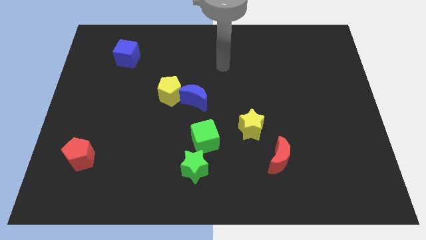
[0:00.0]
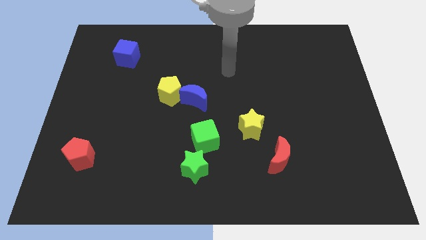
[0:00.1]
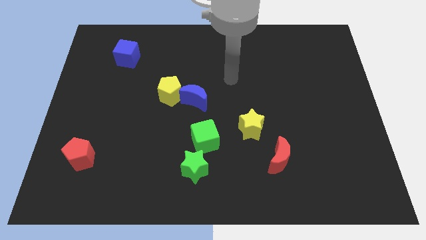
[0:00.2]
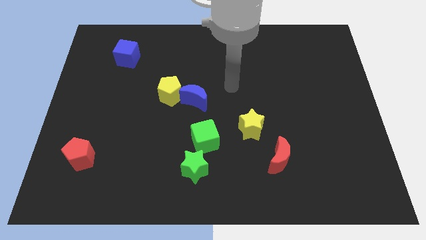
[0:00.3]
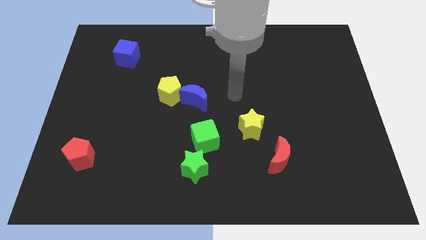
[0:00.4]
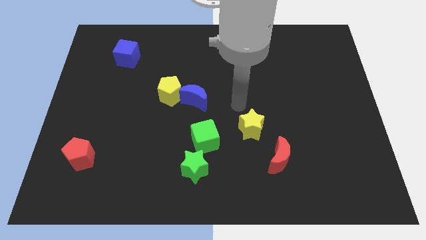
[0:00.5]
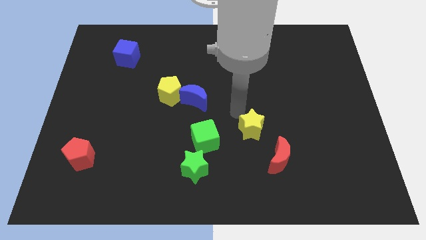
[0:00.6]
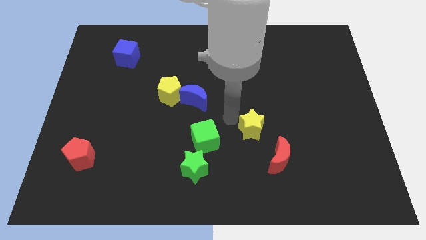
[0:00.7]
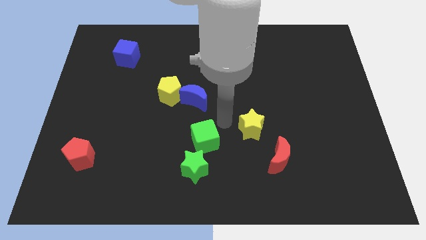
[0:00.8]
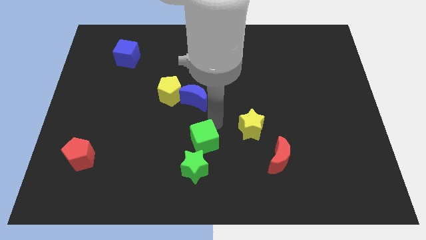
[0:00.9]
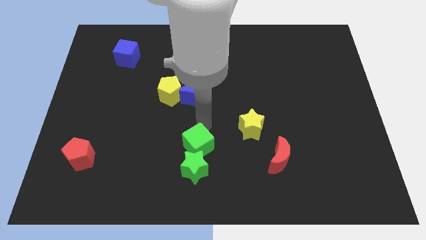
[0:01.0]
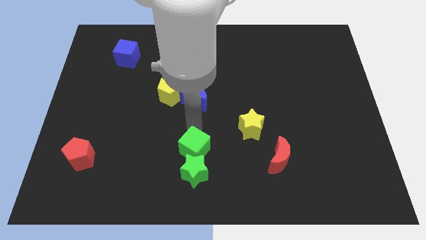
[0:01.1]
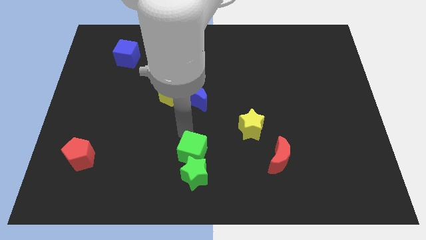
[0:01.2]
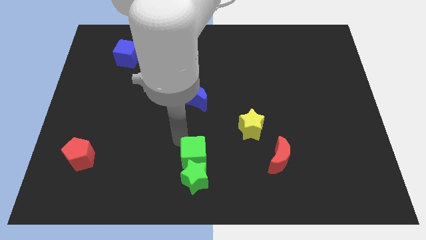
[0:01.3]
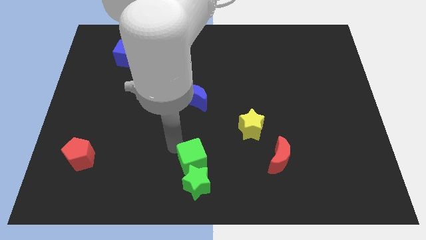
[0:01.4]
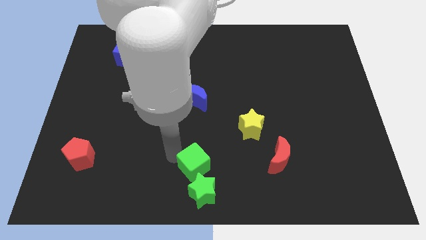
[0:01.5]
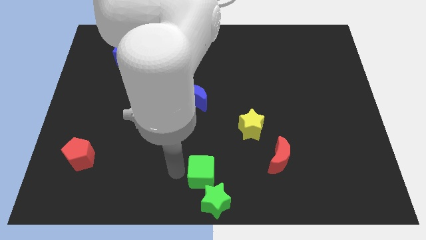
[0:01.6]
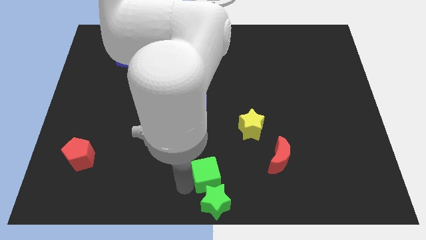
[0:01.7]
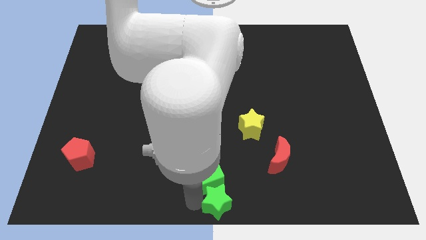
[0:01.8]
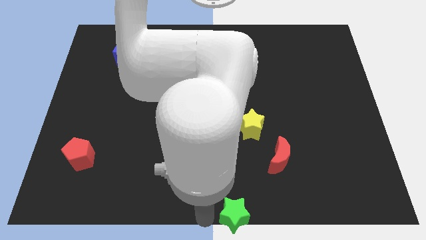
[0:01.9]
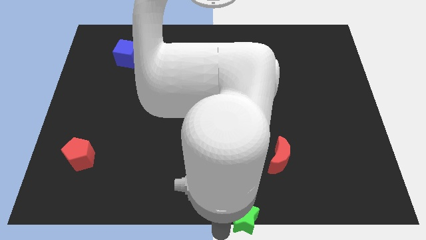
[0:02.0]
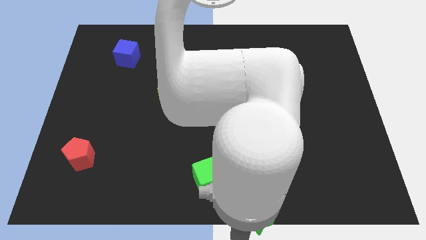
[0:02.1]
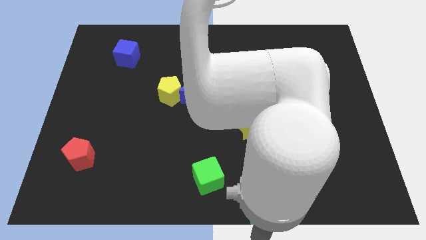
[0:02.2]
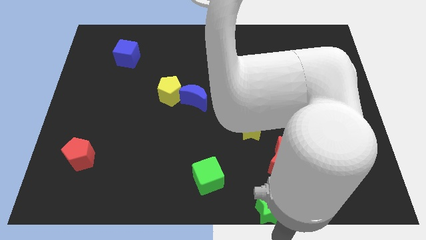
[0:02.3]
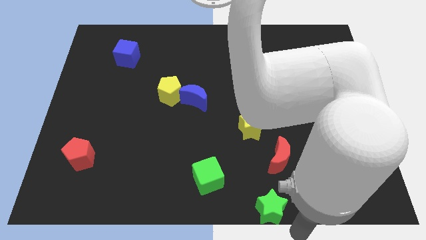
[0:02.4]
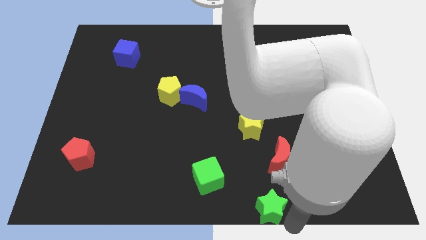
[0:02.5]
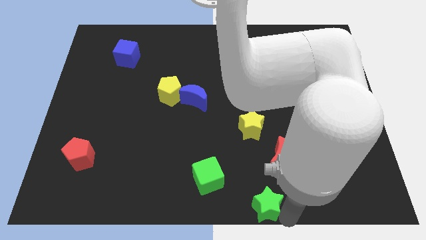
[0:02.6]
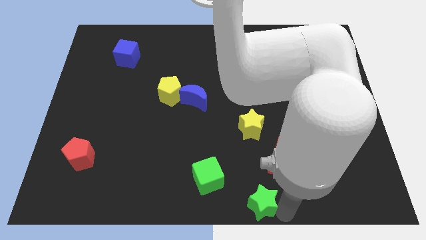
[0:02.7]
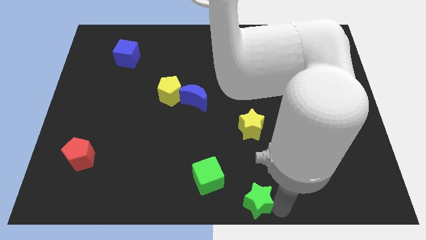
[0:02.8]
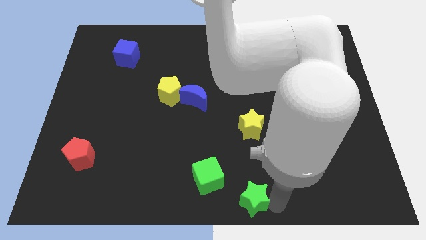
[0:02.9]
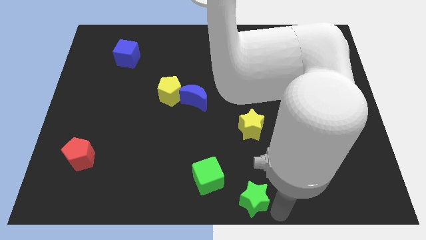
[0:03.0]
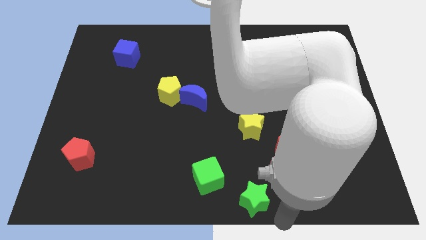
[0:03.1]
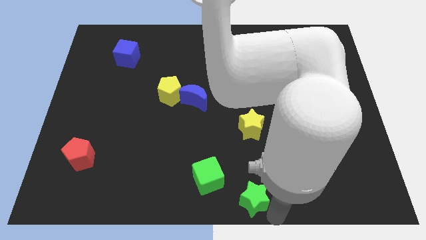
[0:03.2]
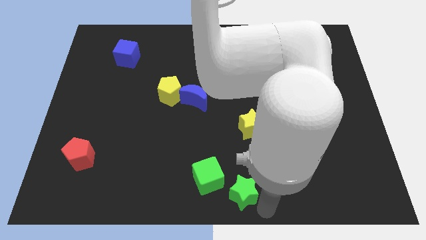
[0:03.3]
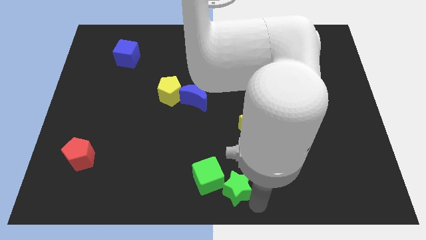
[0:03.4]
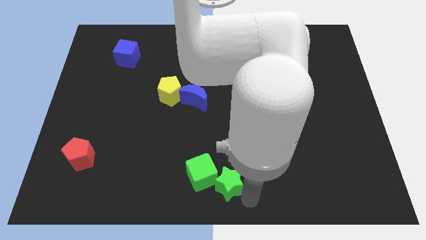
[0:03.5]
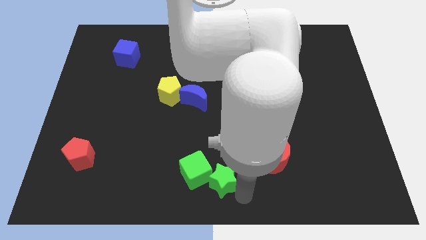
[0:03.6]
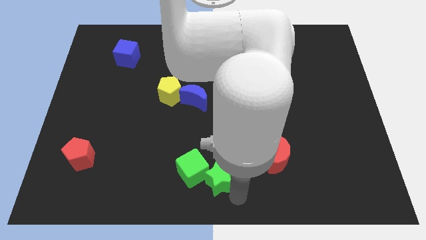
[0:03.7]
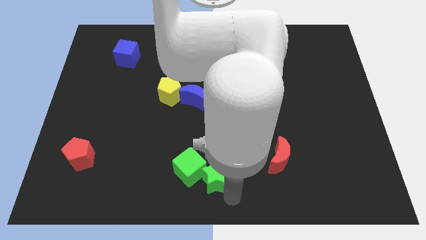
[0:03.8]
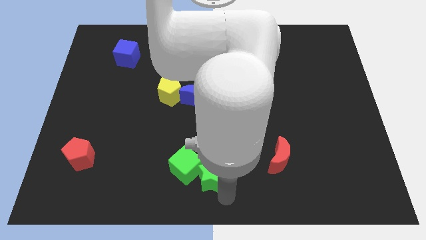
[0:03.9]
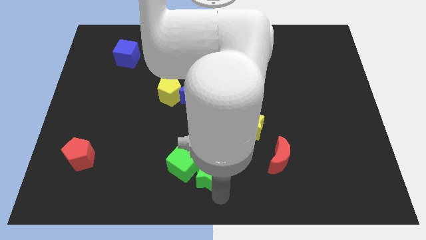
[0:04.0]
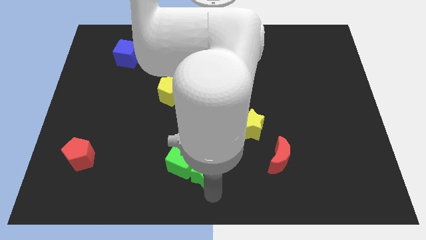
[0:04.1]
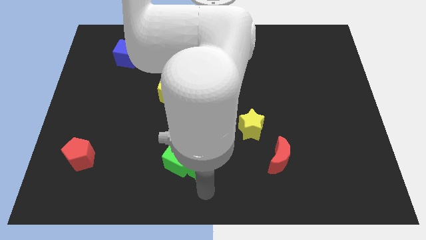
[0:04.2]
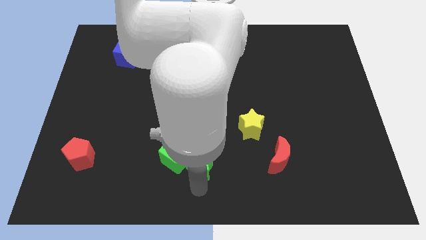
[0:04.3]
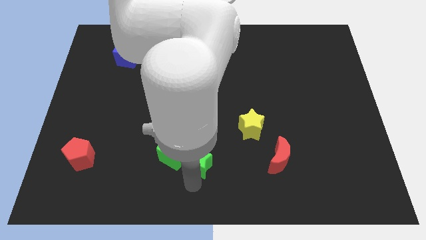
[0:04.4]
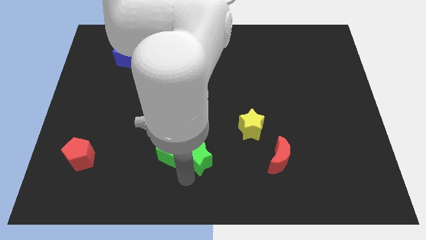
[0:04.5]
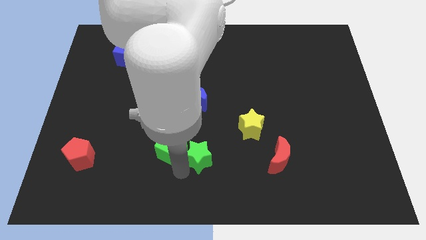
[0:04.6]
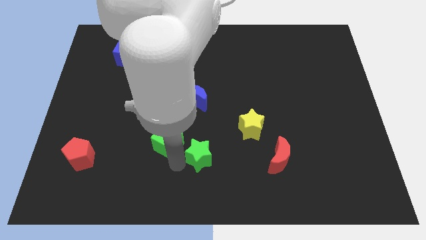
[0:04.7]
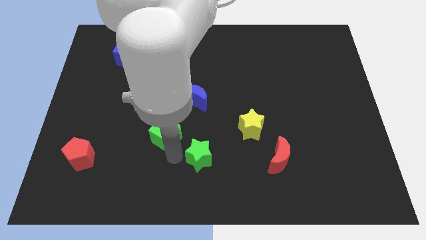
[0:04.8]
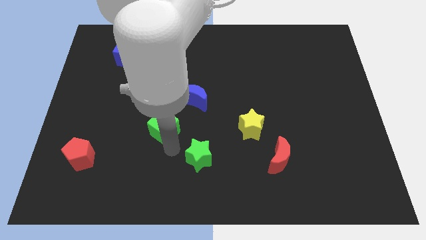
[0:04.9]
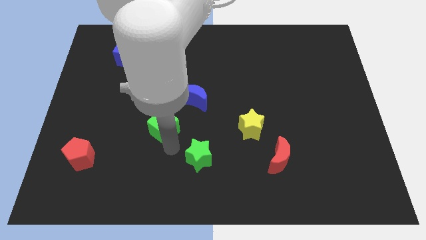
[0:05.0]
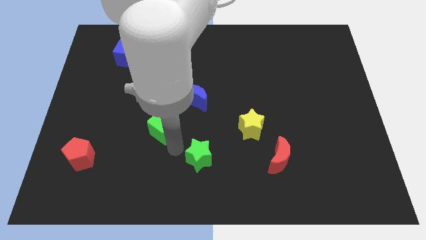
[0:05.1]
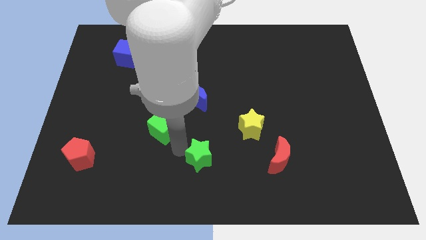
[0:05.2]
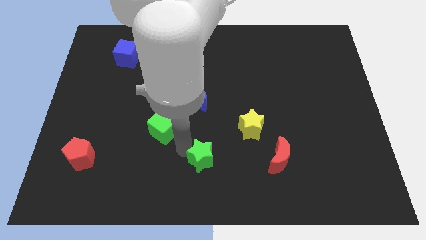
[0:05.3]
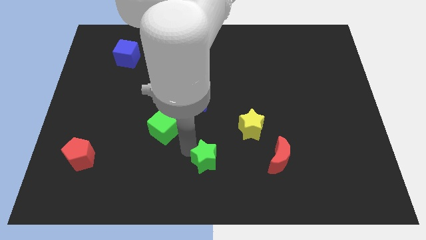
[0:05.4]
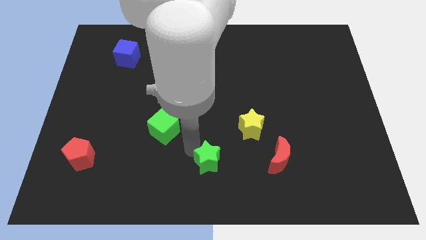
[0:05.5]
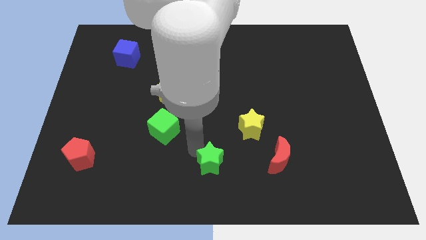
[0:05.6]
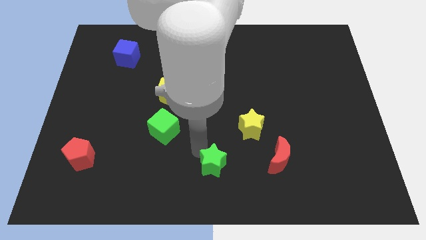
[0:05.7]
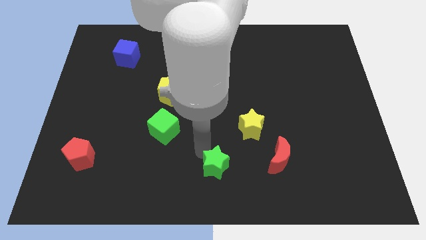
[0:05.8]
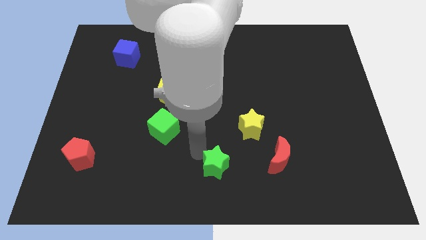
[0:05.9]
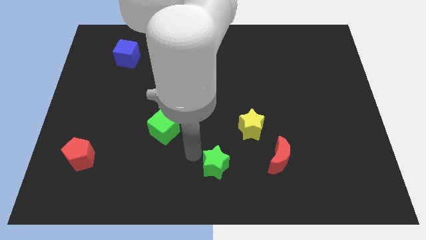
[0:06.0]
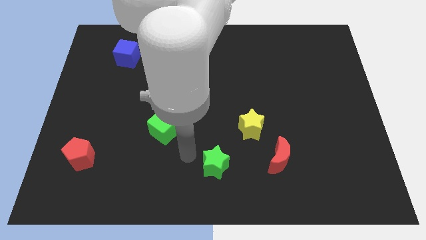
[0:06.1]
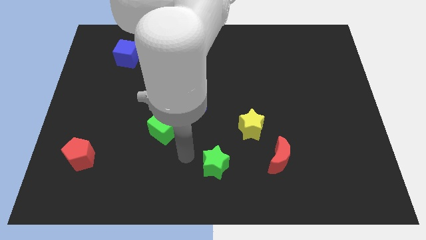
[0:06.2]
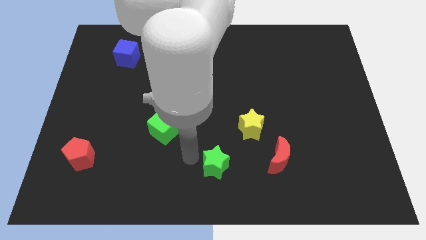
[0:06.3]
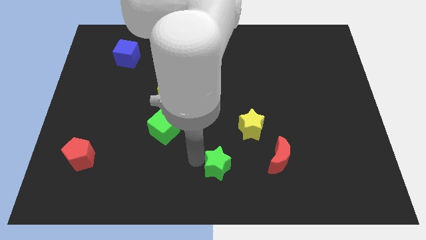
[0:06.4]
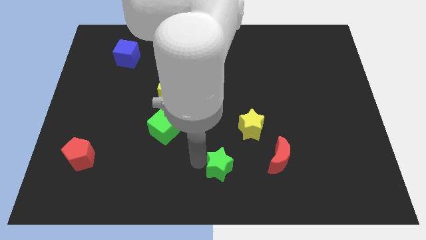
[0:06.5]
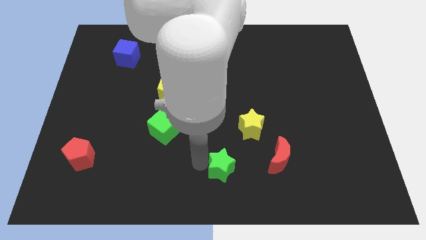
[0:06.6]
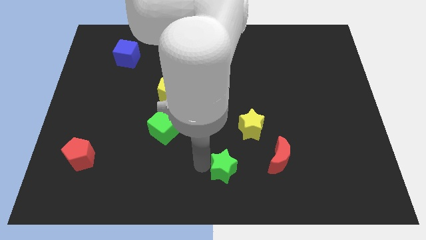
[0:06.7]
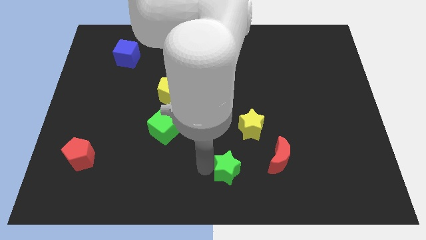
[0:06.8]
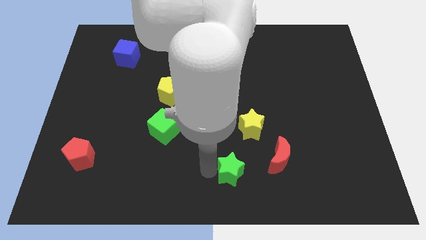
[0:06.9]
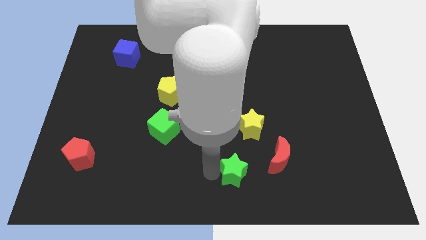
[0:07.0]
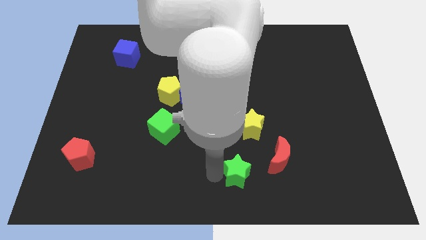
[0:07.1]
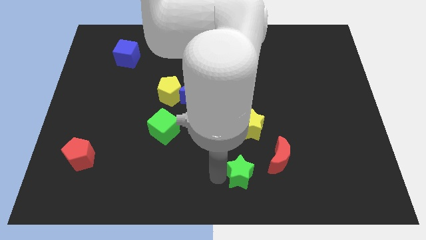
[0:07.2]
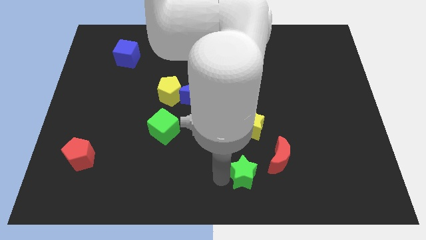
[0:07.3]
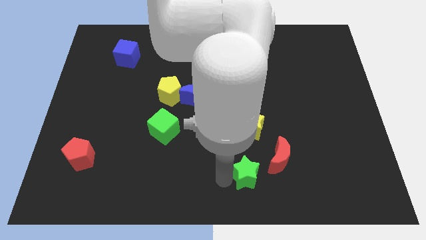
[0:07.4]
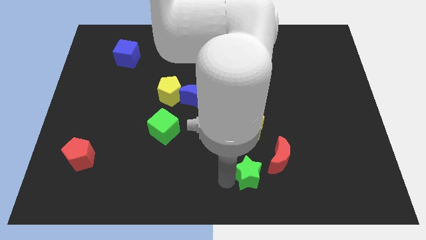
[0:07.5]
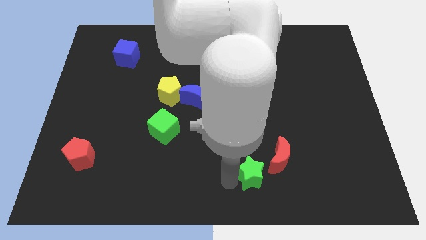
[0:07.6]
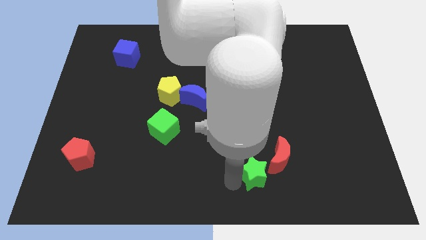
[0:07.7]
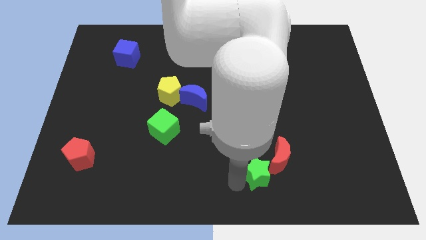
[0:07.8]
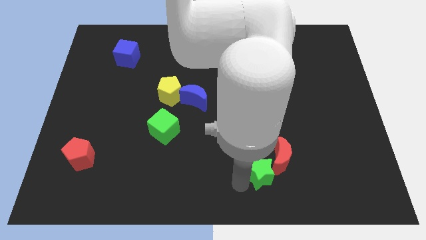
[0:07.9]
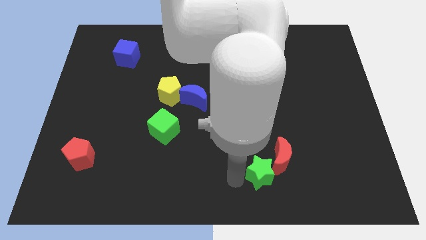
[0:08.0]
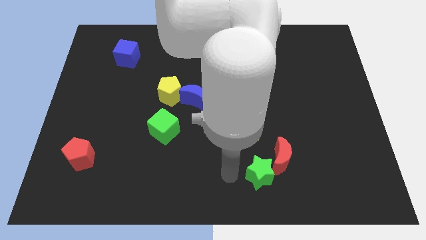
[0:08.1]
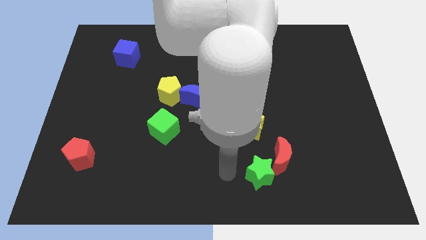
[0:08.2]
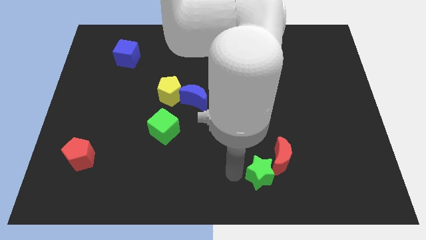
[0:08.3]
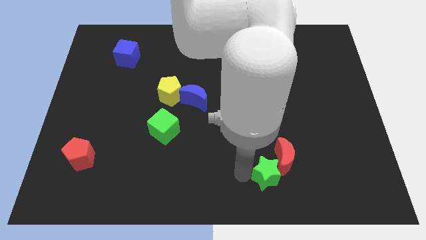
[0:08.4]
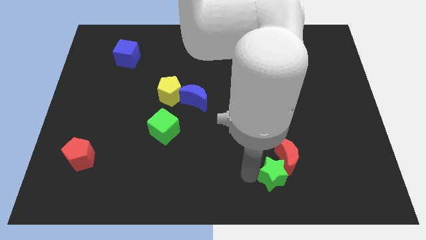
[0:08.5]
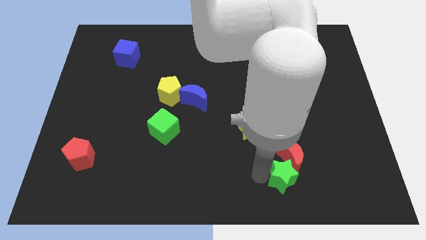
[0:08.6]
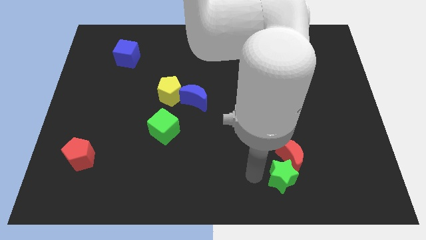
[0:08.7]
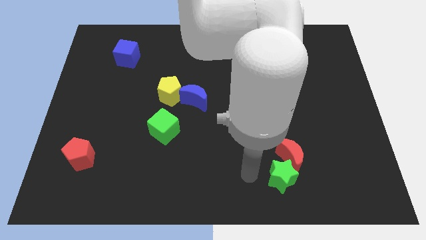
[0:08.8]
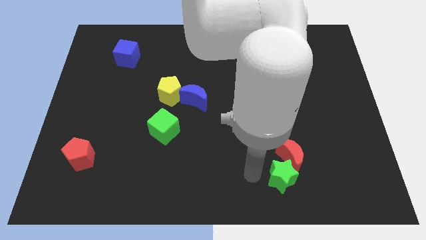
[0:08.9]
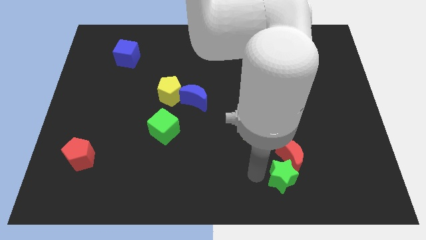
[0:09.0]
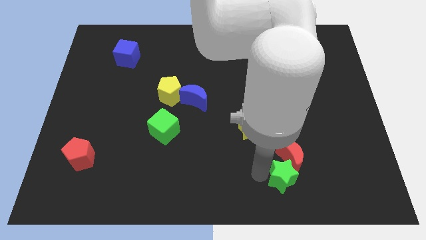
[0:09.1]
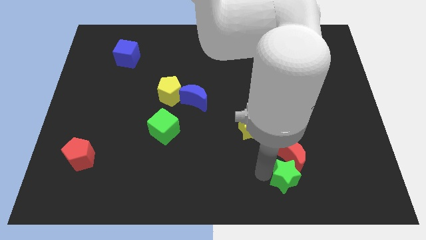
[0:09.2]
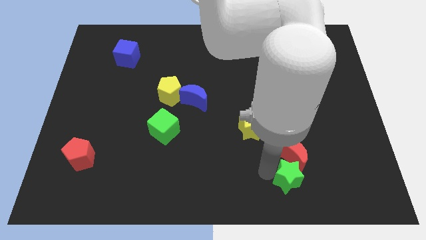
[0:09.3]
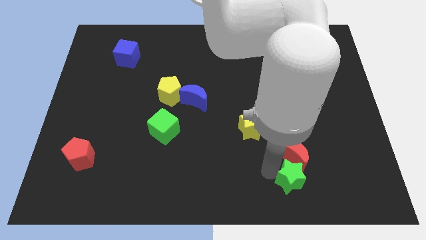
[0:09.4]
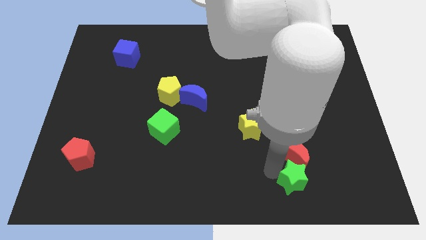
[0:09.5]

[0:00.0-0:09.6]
move the green star to the right
